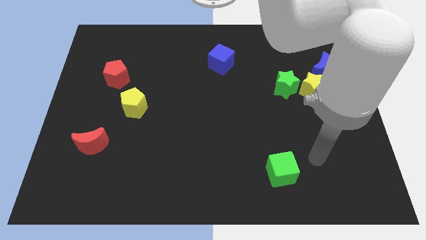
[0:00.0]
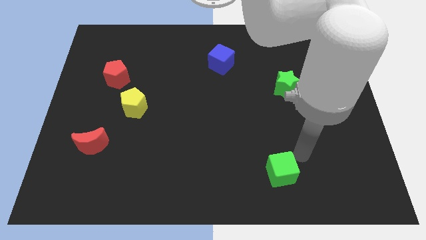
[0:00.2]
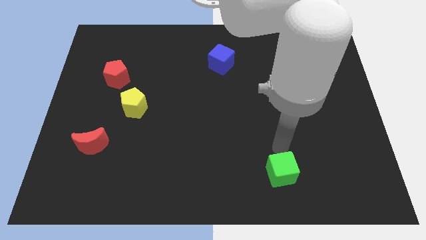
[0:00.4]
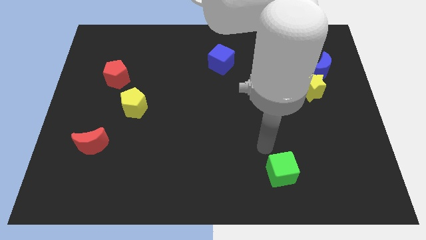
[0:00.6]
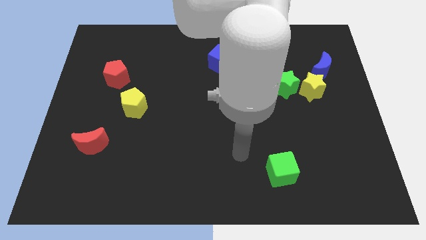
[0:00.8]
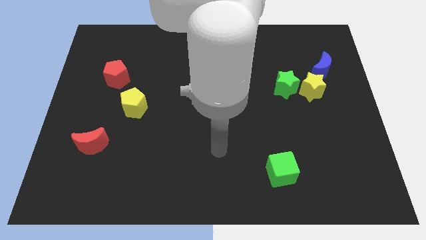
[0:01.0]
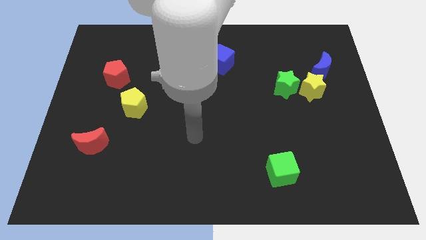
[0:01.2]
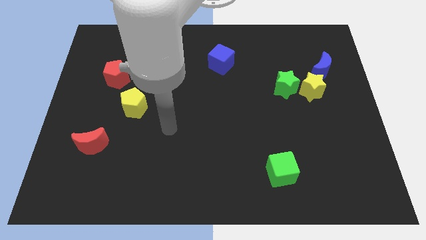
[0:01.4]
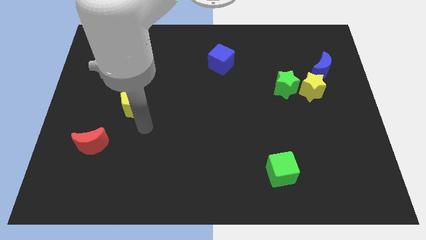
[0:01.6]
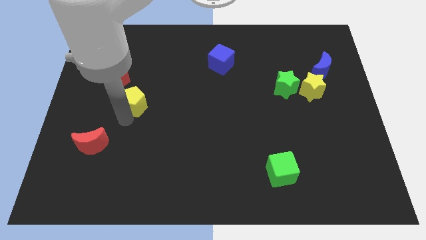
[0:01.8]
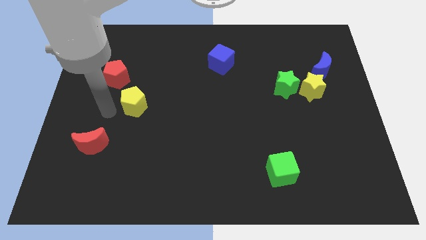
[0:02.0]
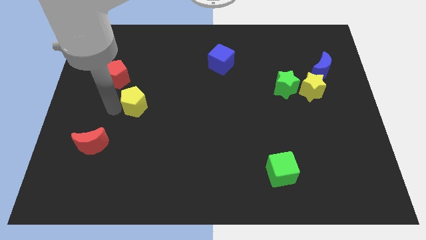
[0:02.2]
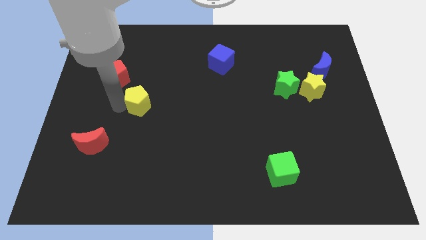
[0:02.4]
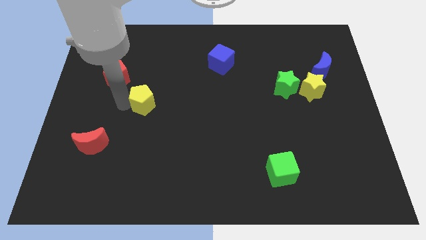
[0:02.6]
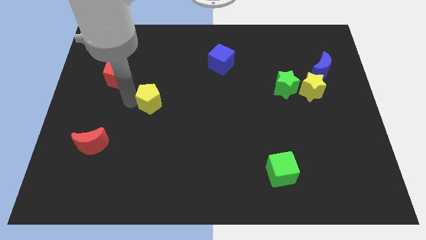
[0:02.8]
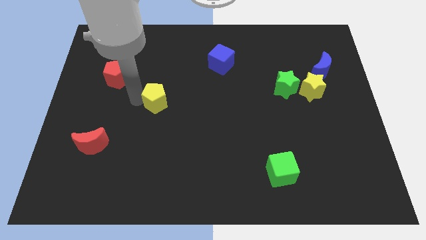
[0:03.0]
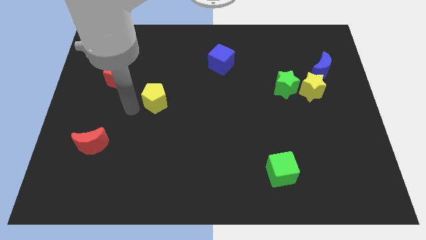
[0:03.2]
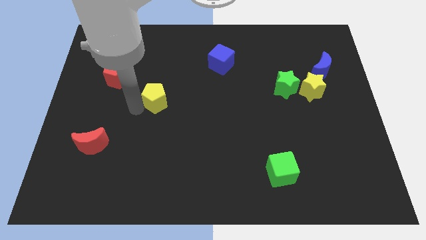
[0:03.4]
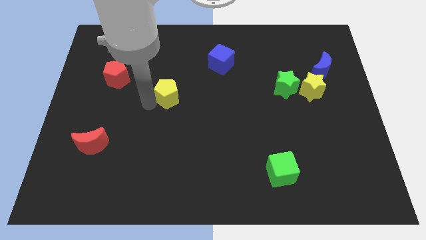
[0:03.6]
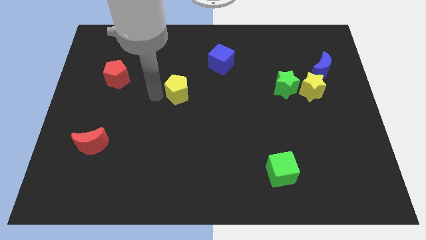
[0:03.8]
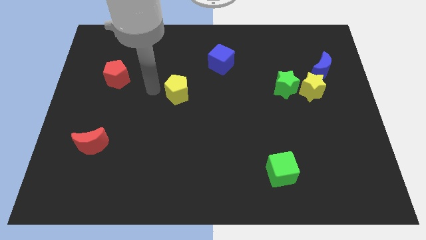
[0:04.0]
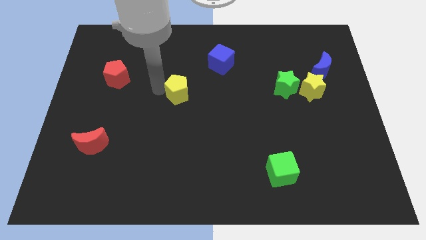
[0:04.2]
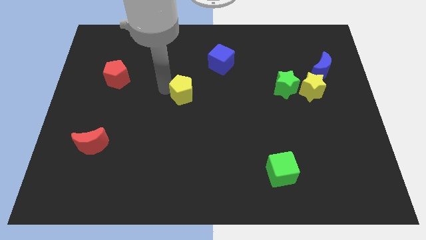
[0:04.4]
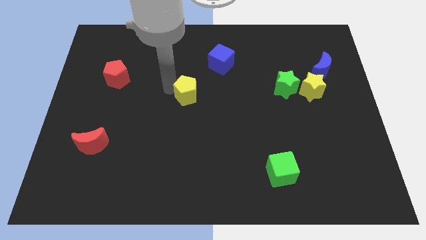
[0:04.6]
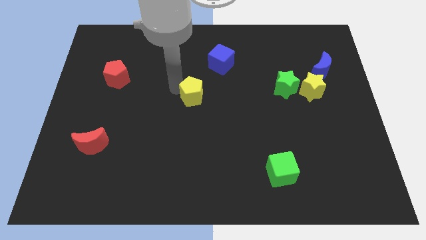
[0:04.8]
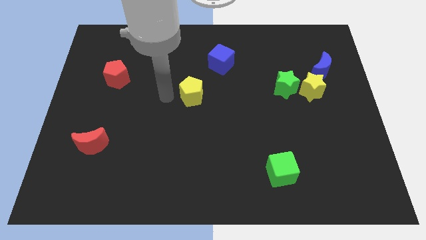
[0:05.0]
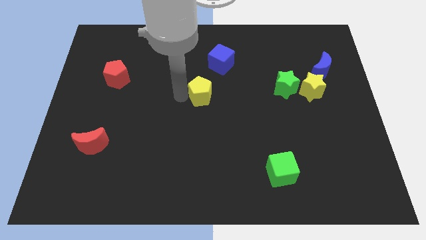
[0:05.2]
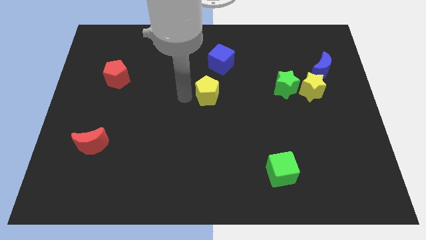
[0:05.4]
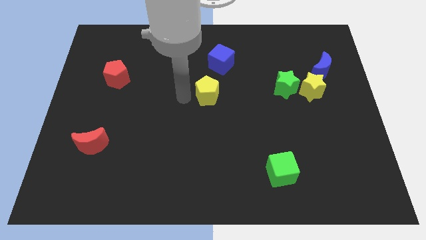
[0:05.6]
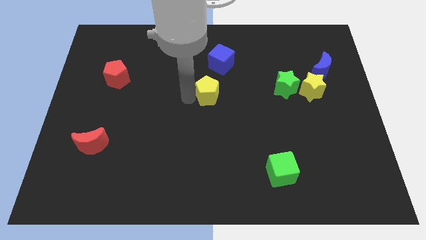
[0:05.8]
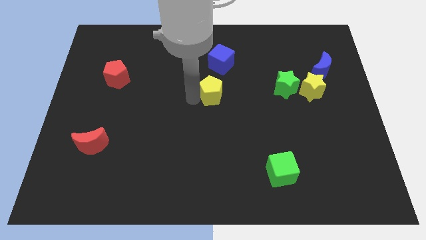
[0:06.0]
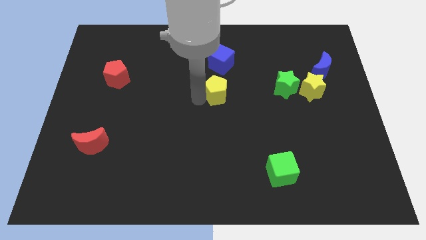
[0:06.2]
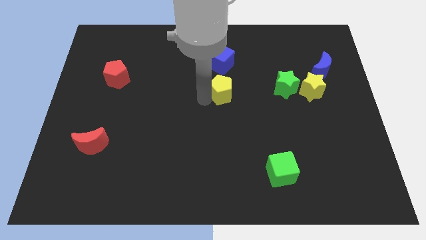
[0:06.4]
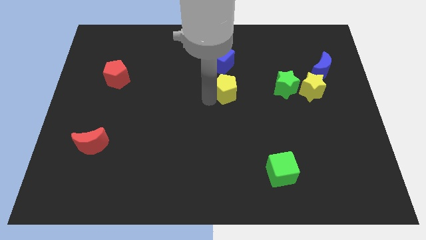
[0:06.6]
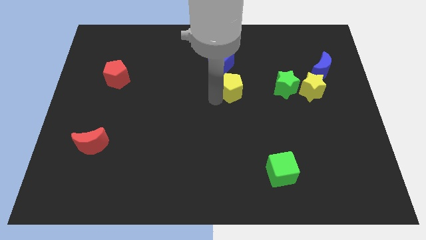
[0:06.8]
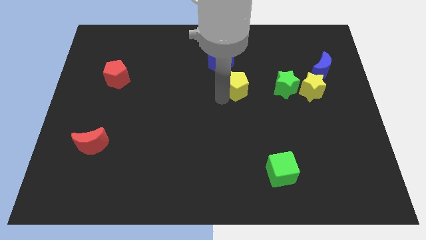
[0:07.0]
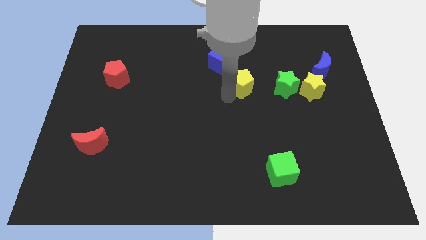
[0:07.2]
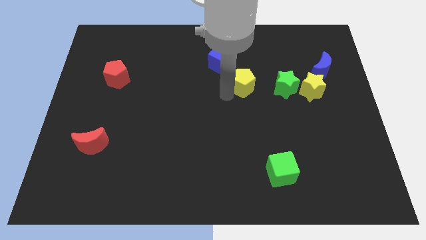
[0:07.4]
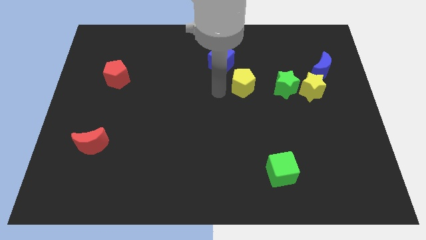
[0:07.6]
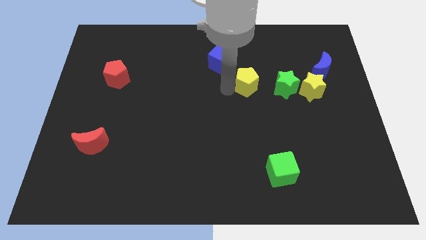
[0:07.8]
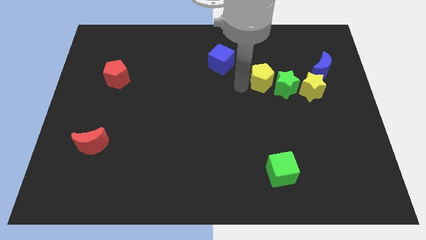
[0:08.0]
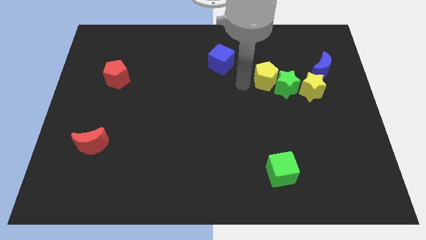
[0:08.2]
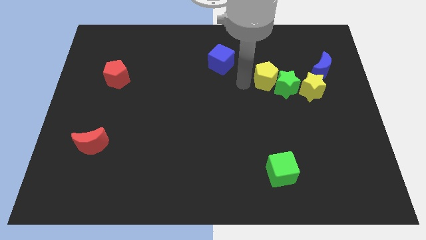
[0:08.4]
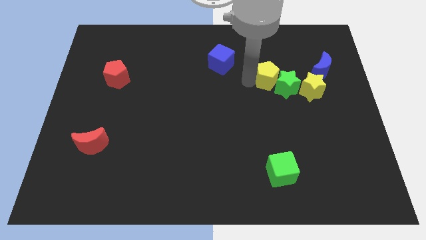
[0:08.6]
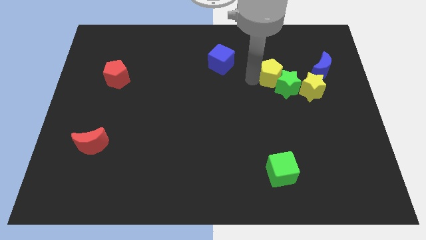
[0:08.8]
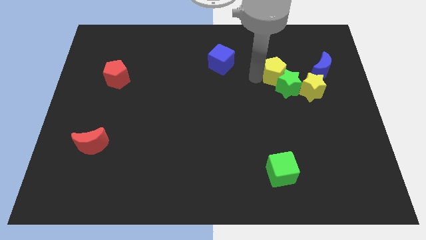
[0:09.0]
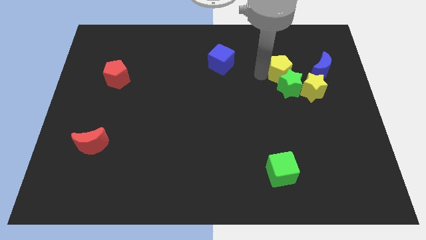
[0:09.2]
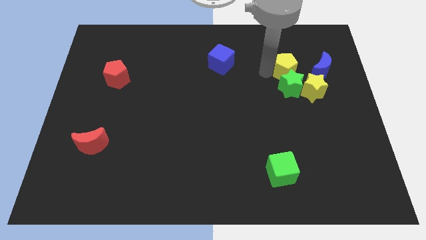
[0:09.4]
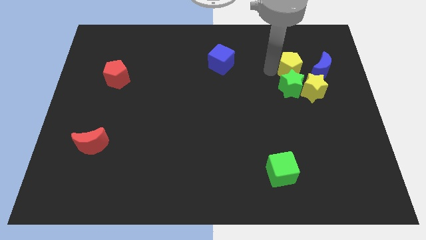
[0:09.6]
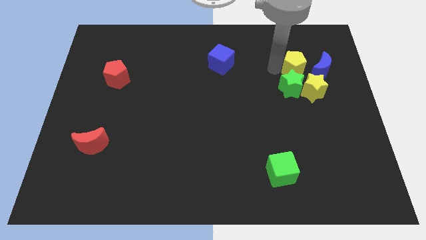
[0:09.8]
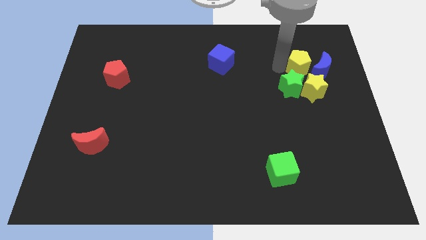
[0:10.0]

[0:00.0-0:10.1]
slide the yellow pentagon to the blue moon

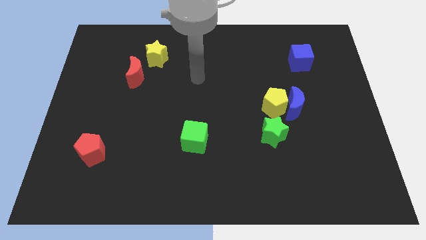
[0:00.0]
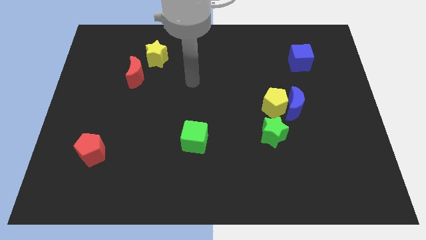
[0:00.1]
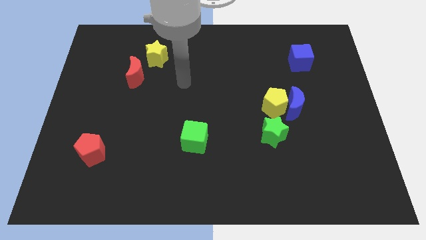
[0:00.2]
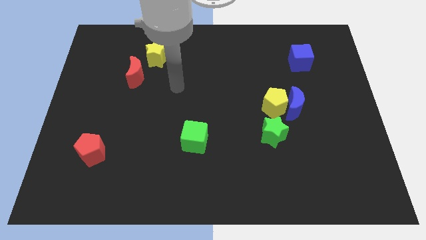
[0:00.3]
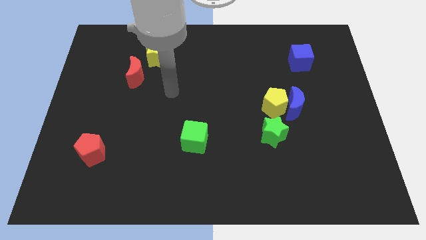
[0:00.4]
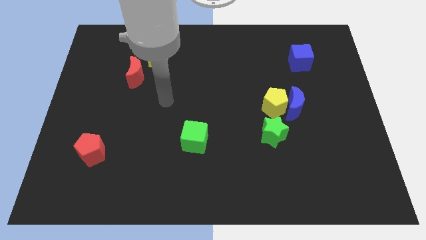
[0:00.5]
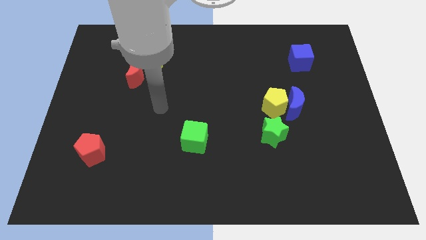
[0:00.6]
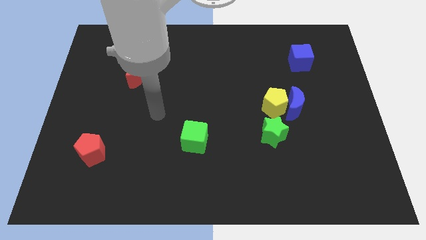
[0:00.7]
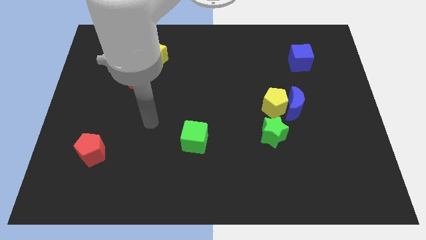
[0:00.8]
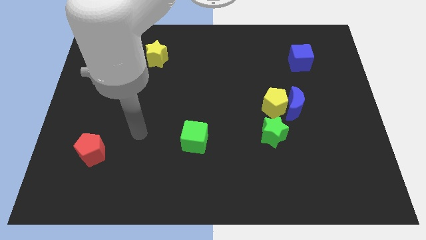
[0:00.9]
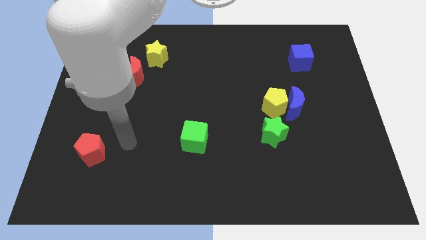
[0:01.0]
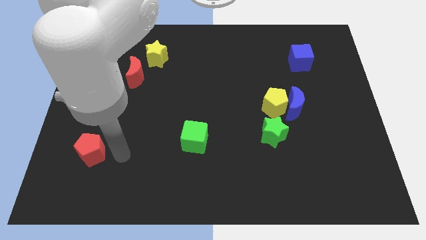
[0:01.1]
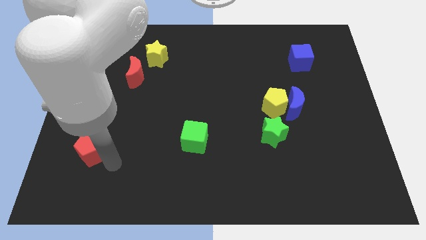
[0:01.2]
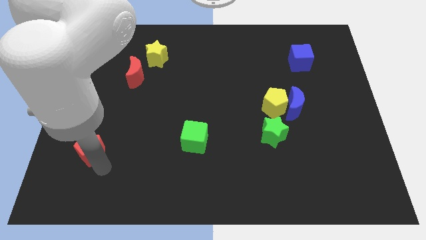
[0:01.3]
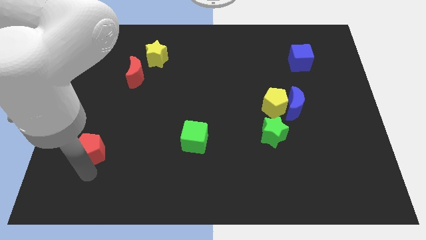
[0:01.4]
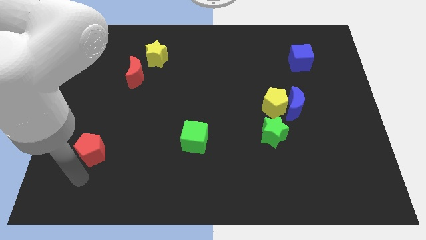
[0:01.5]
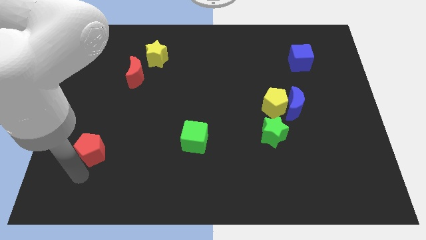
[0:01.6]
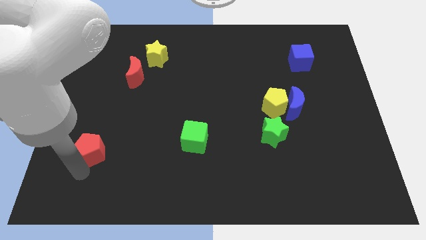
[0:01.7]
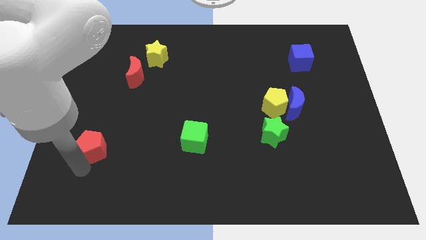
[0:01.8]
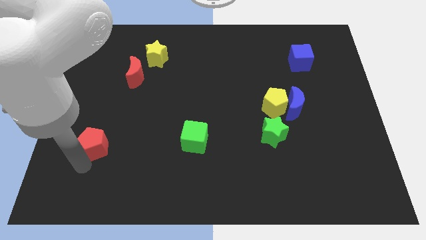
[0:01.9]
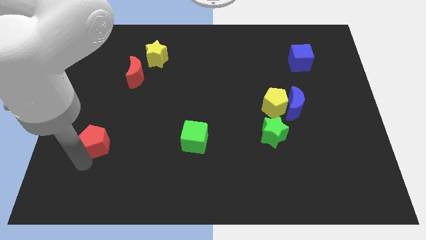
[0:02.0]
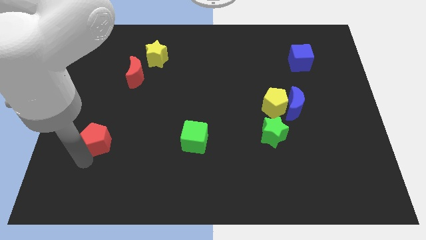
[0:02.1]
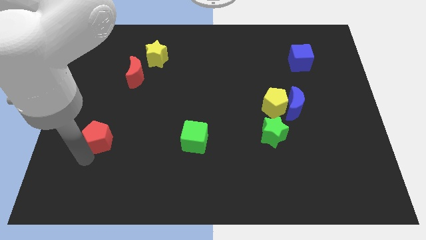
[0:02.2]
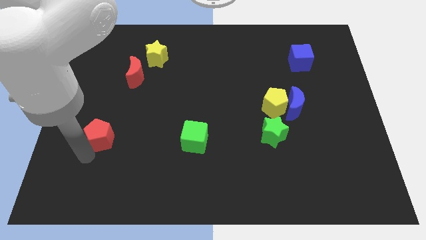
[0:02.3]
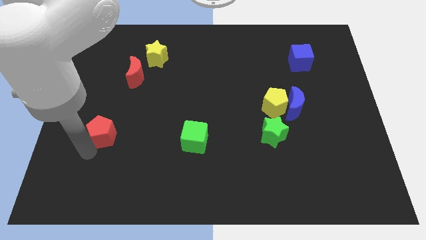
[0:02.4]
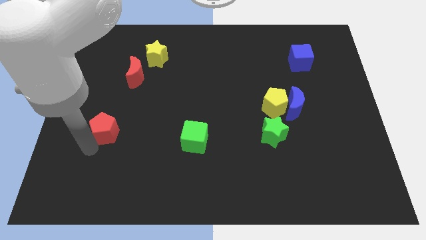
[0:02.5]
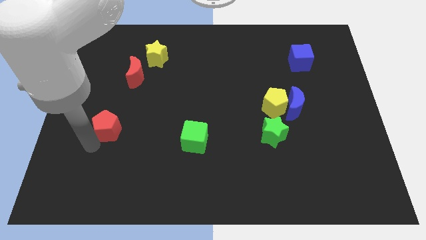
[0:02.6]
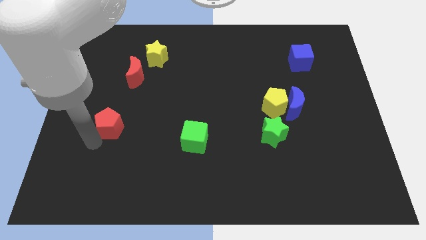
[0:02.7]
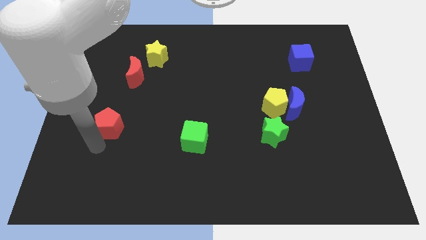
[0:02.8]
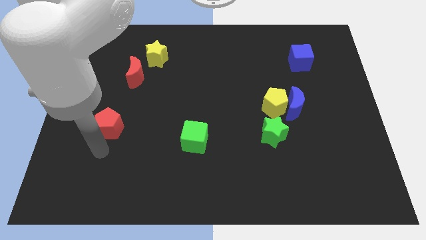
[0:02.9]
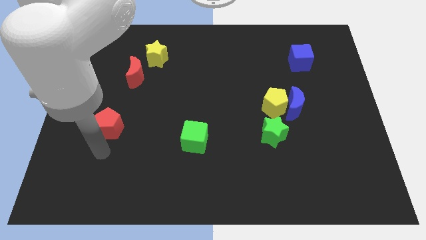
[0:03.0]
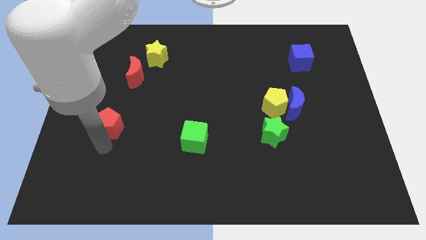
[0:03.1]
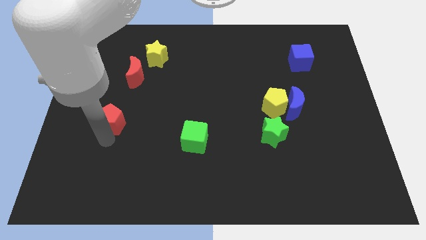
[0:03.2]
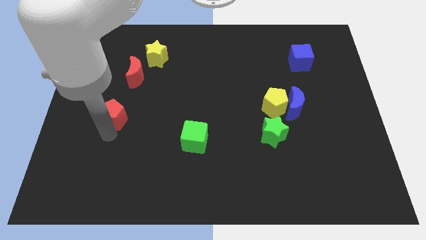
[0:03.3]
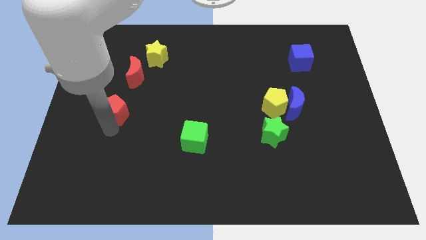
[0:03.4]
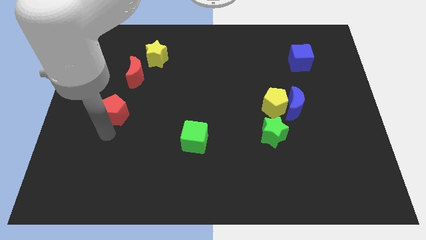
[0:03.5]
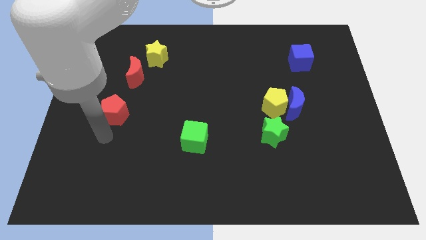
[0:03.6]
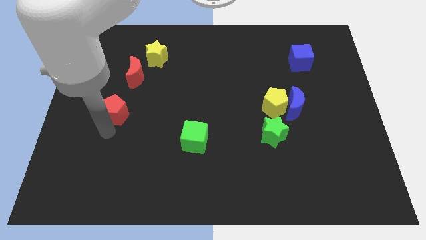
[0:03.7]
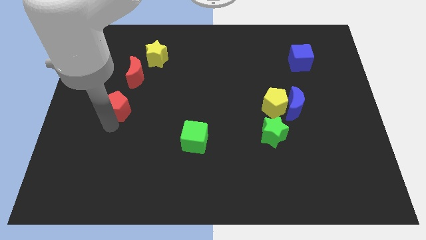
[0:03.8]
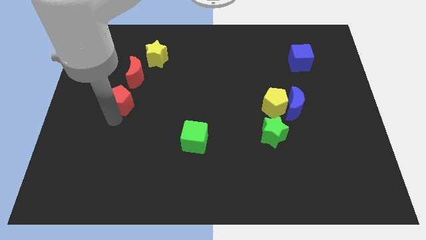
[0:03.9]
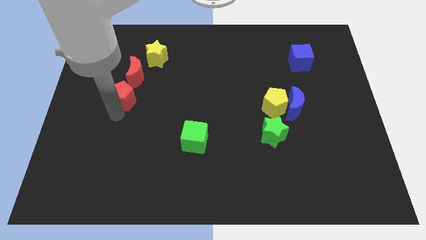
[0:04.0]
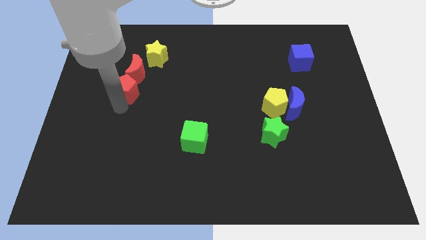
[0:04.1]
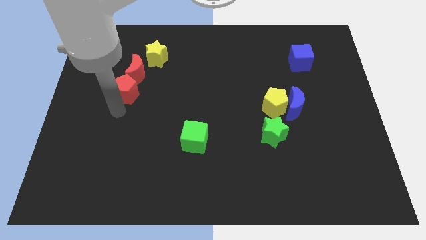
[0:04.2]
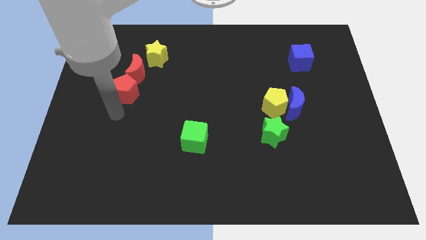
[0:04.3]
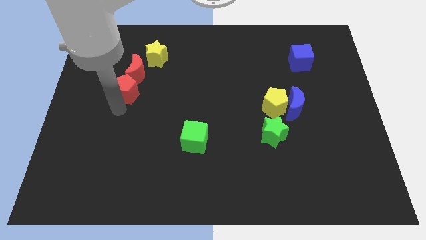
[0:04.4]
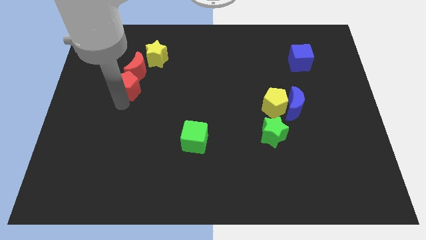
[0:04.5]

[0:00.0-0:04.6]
put the red pentagon close to the red moon
